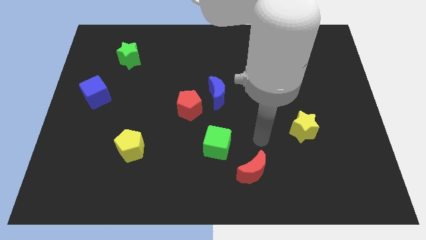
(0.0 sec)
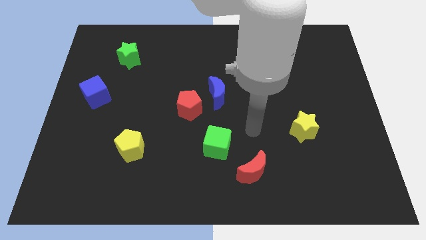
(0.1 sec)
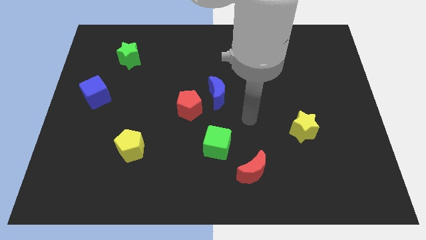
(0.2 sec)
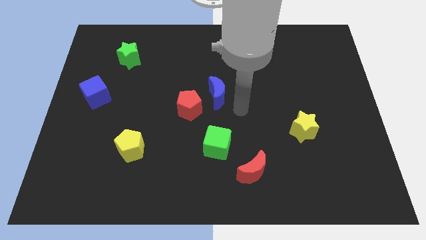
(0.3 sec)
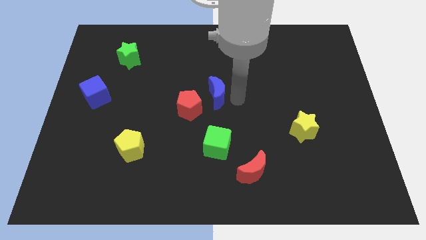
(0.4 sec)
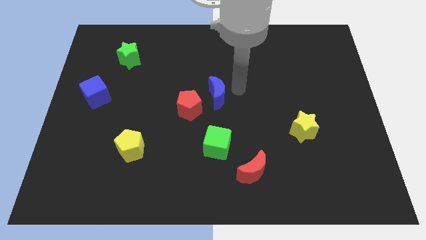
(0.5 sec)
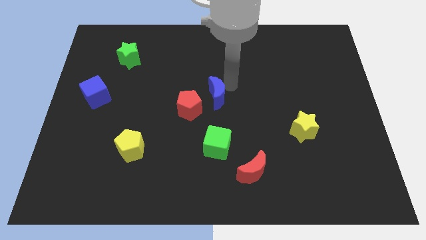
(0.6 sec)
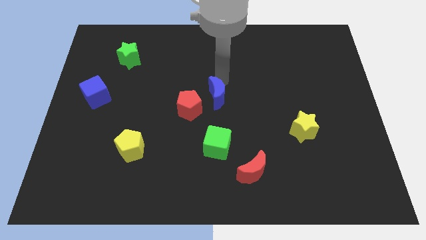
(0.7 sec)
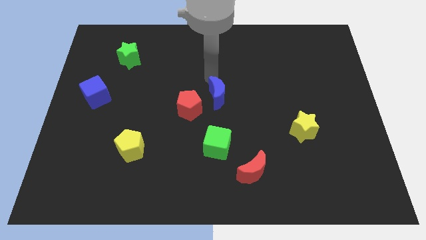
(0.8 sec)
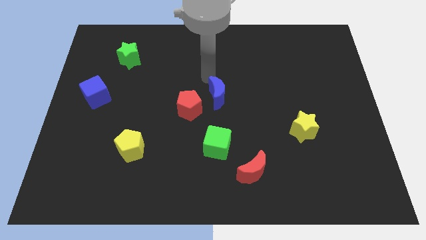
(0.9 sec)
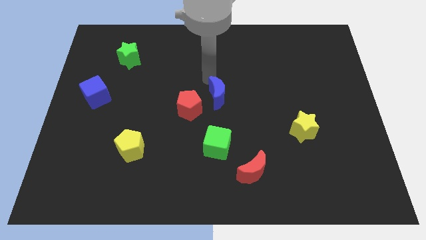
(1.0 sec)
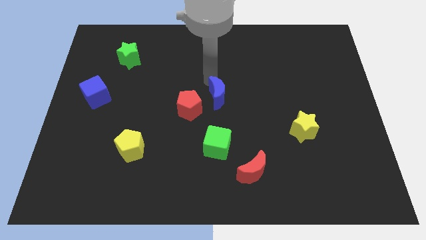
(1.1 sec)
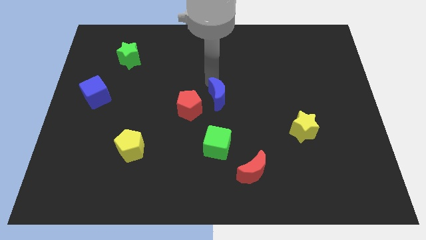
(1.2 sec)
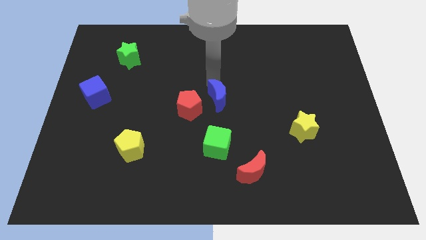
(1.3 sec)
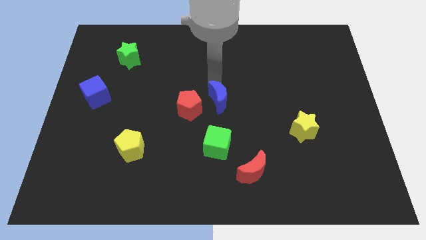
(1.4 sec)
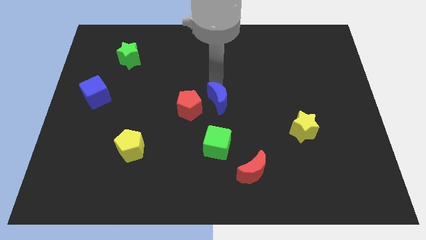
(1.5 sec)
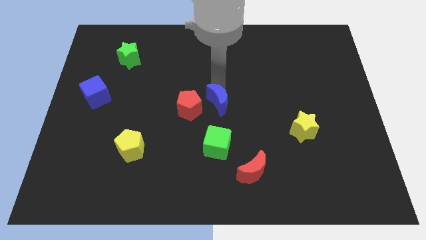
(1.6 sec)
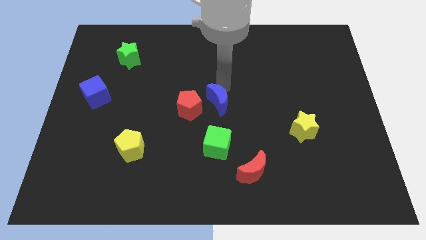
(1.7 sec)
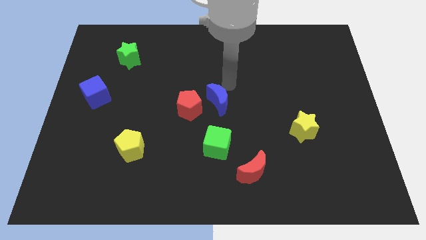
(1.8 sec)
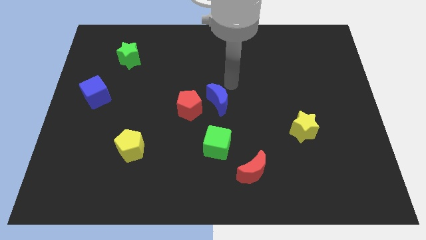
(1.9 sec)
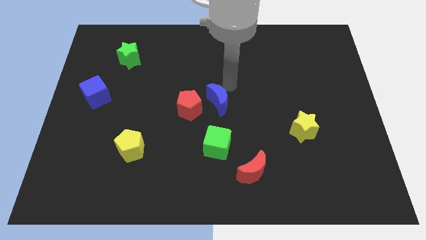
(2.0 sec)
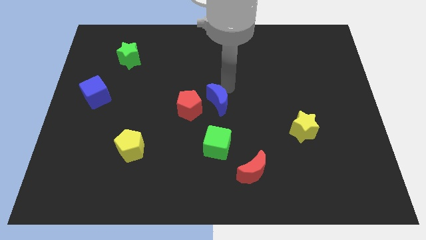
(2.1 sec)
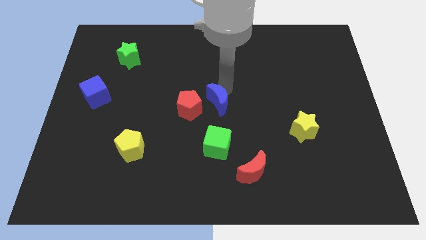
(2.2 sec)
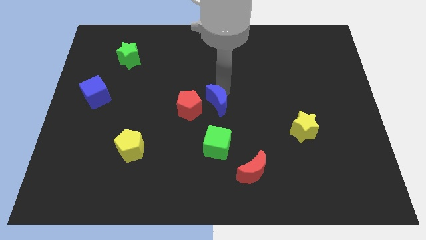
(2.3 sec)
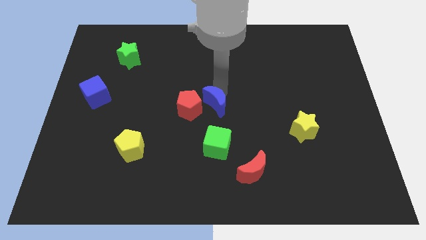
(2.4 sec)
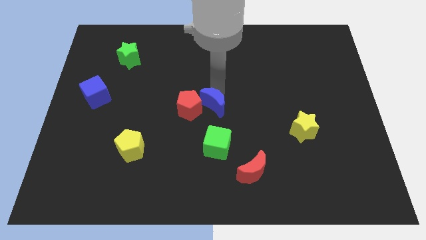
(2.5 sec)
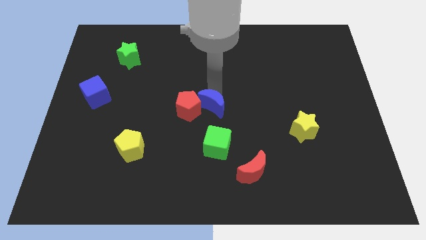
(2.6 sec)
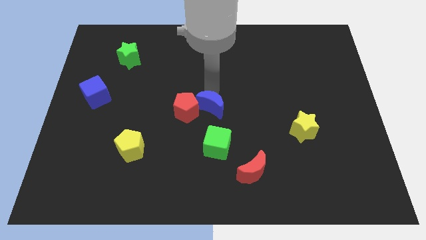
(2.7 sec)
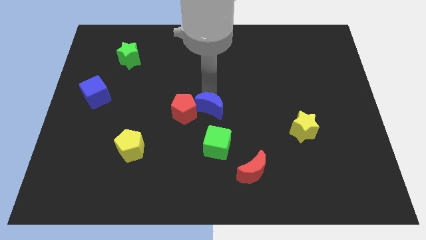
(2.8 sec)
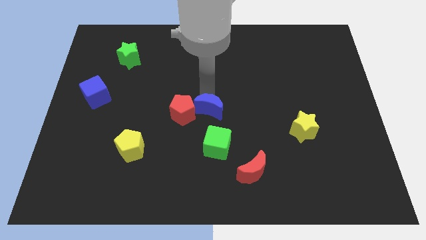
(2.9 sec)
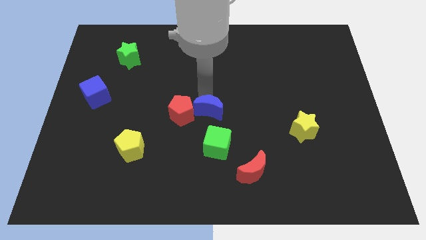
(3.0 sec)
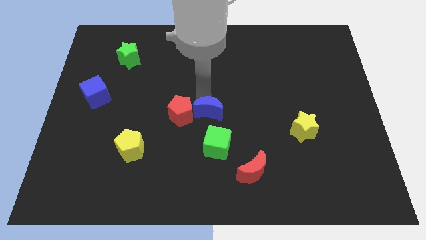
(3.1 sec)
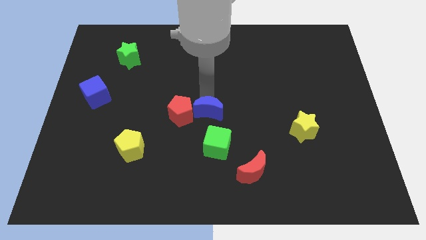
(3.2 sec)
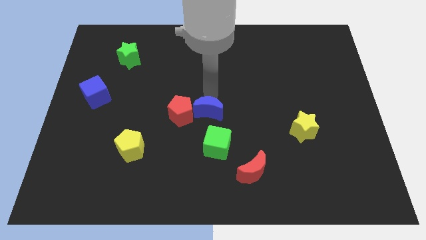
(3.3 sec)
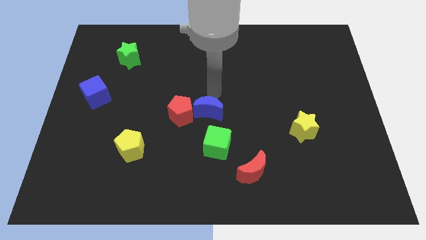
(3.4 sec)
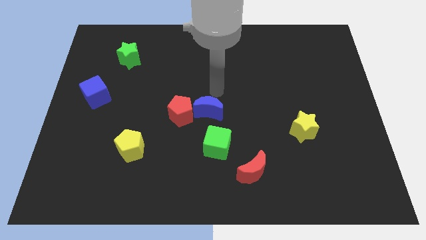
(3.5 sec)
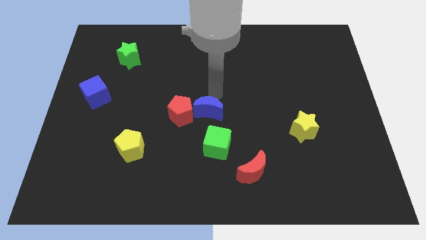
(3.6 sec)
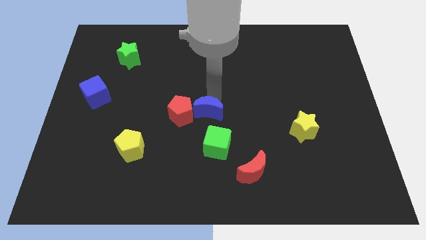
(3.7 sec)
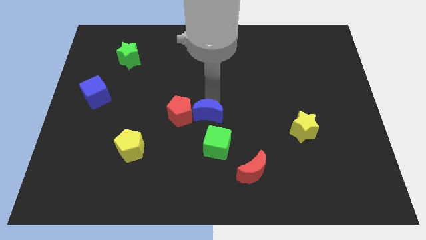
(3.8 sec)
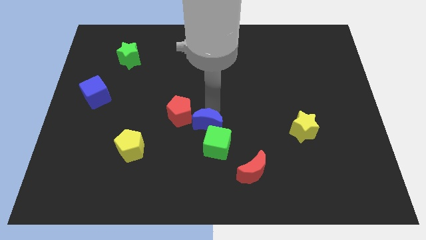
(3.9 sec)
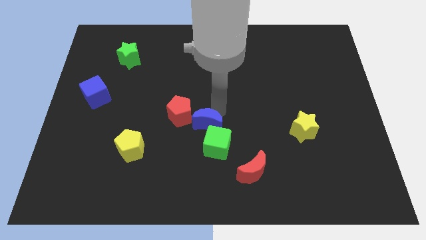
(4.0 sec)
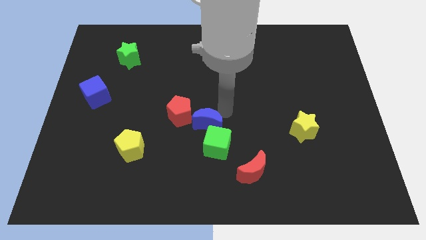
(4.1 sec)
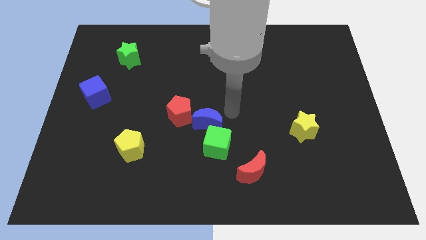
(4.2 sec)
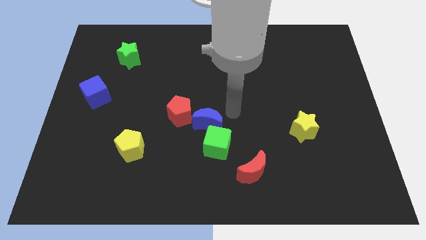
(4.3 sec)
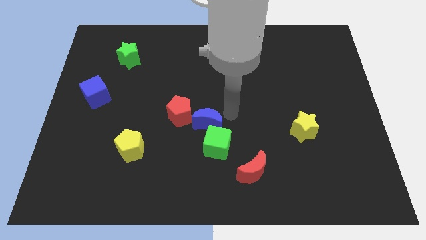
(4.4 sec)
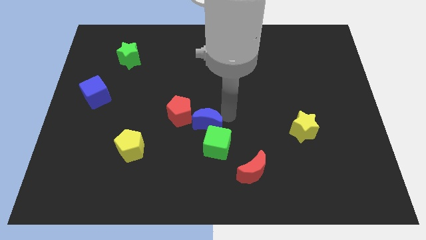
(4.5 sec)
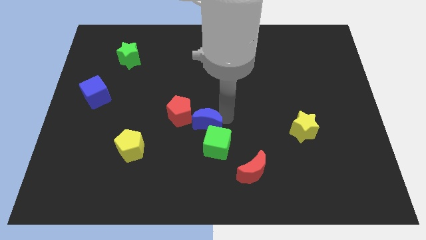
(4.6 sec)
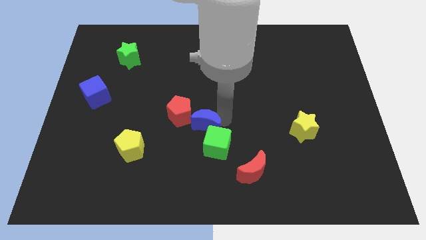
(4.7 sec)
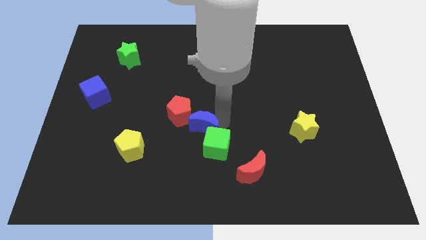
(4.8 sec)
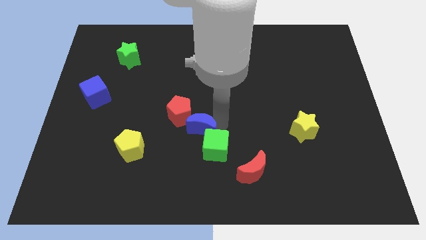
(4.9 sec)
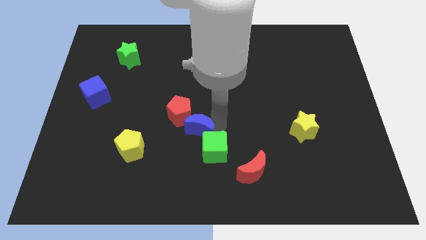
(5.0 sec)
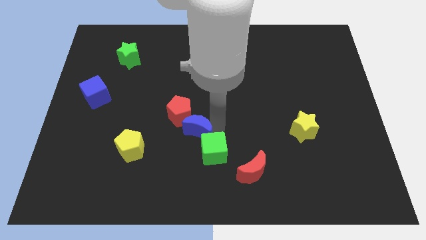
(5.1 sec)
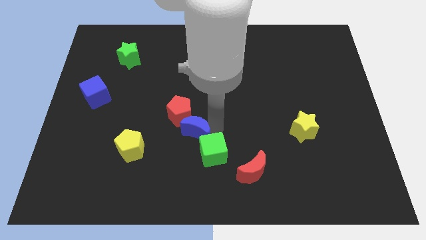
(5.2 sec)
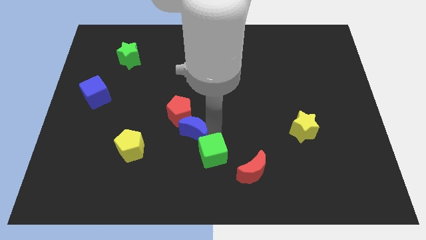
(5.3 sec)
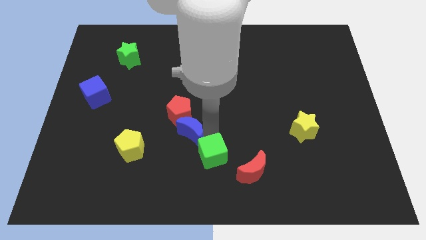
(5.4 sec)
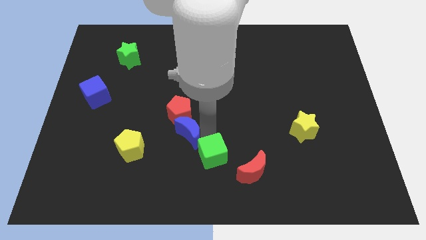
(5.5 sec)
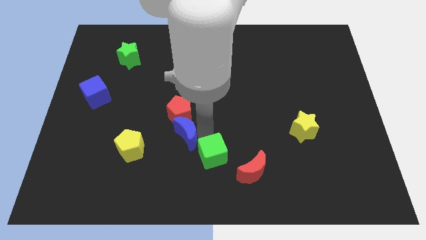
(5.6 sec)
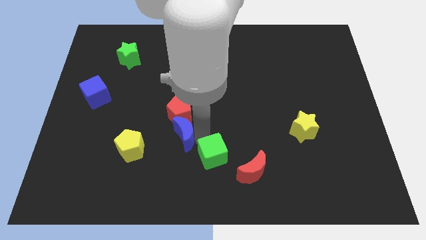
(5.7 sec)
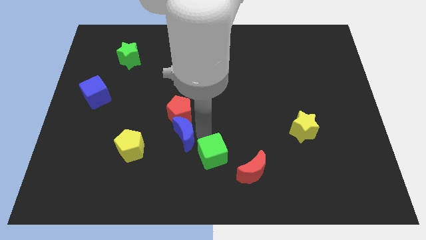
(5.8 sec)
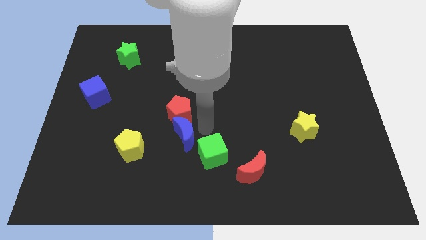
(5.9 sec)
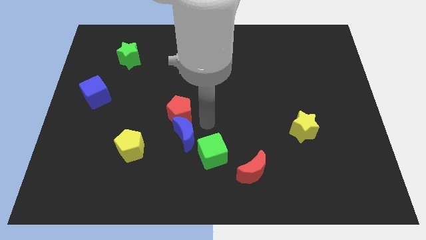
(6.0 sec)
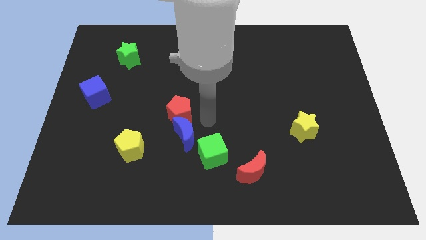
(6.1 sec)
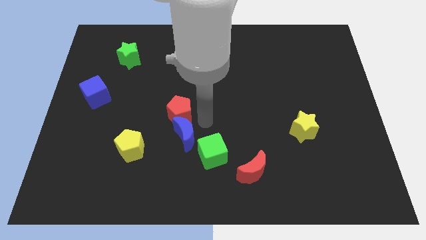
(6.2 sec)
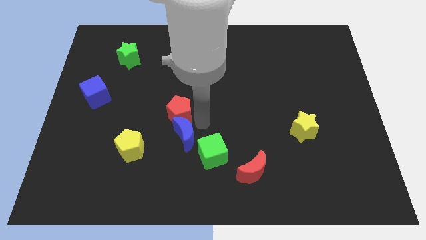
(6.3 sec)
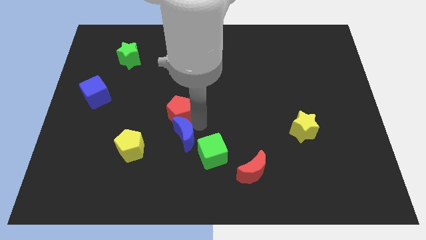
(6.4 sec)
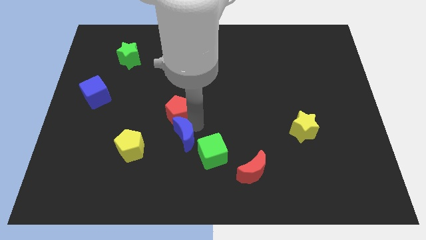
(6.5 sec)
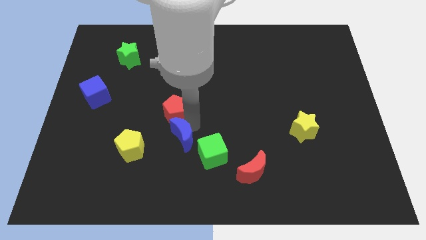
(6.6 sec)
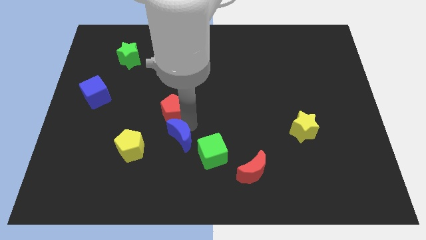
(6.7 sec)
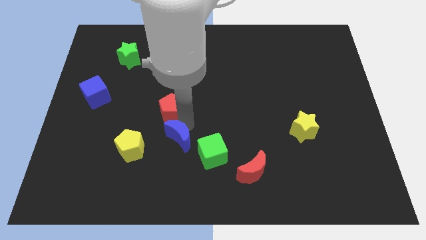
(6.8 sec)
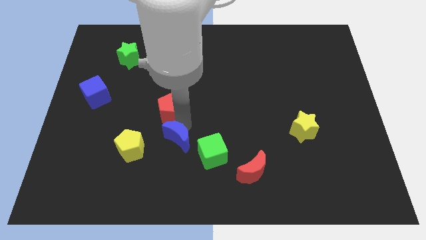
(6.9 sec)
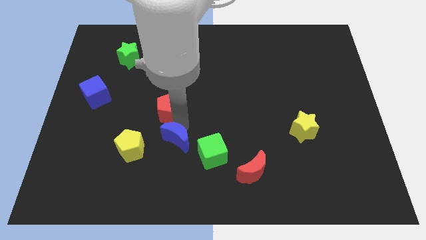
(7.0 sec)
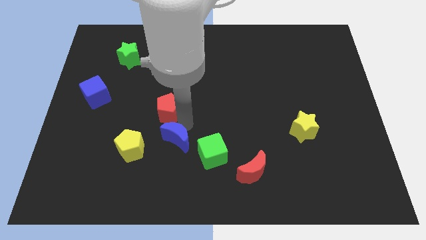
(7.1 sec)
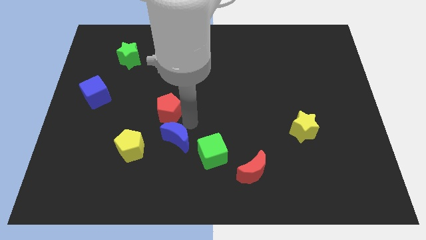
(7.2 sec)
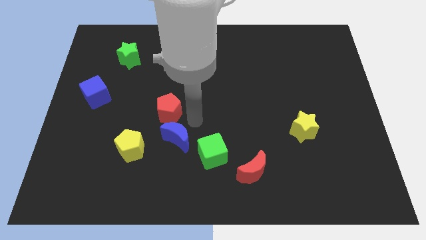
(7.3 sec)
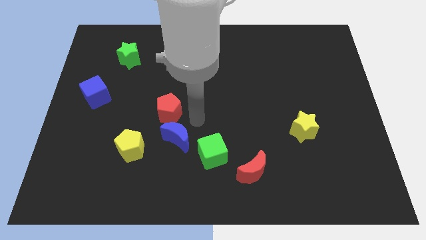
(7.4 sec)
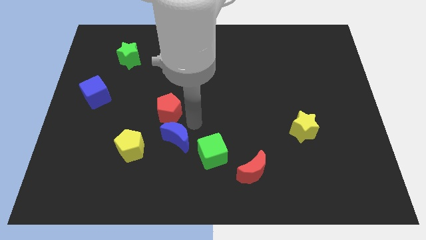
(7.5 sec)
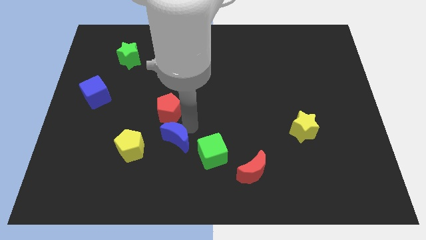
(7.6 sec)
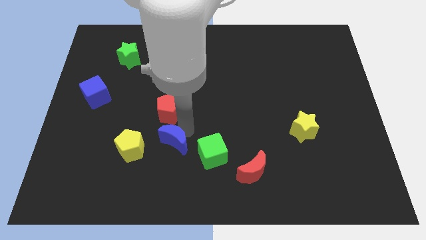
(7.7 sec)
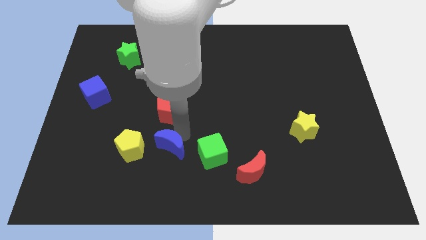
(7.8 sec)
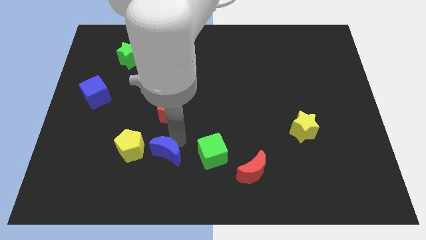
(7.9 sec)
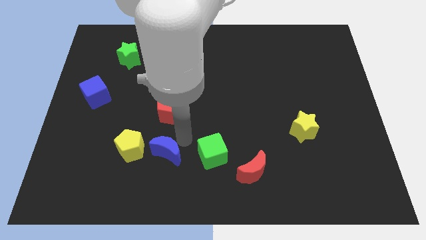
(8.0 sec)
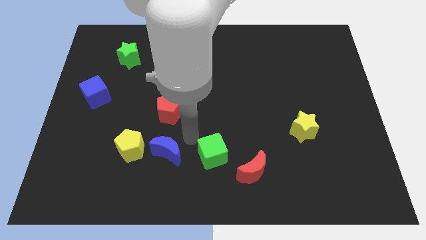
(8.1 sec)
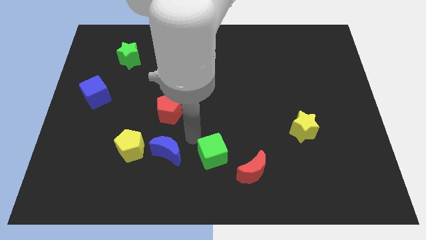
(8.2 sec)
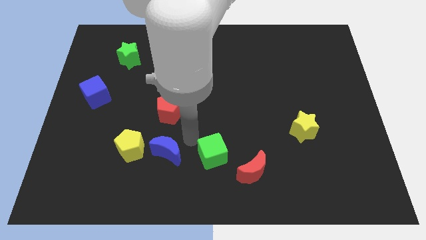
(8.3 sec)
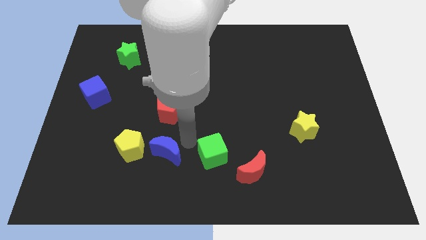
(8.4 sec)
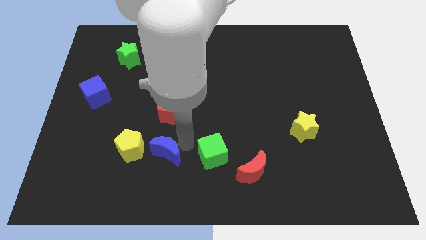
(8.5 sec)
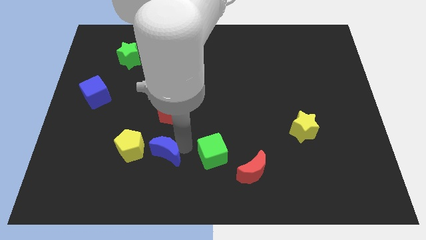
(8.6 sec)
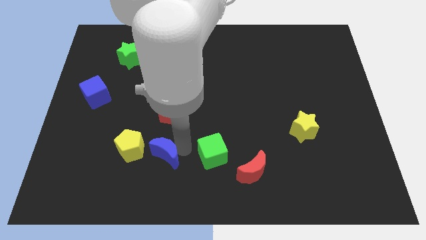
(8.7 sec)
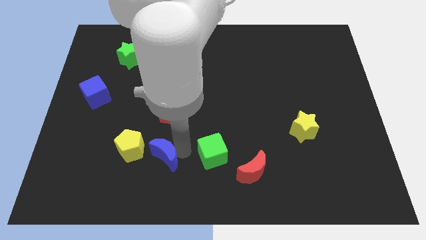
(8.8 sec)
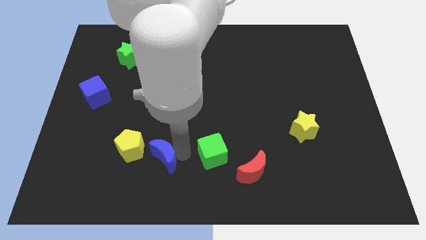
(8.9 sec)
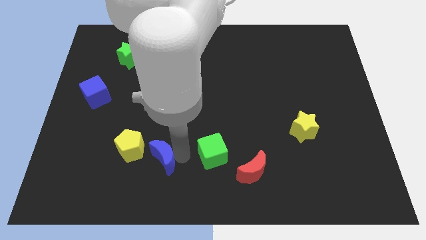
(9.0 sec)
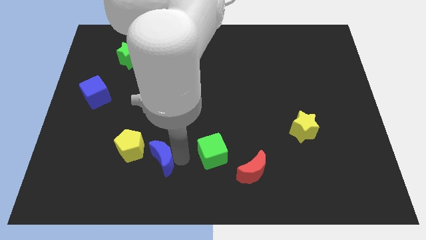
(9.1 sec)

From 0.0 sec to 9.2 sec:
slide the blue moon diagonally downwards and to the left
